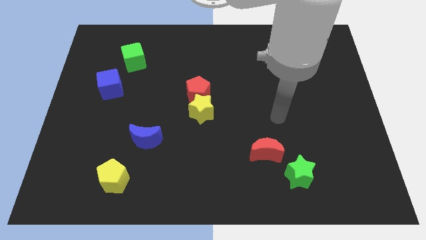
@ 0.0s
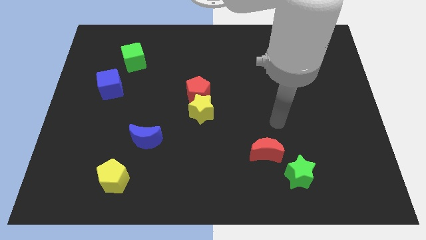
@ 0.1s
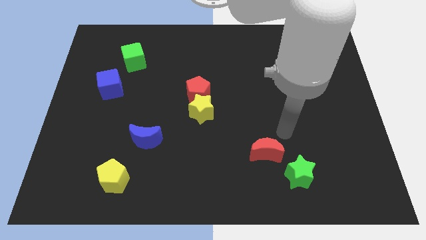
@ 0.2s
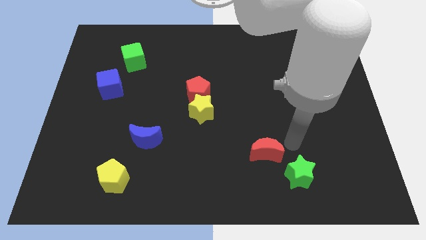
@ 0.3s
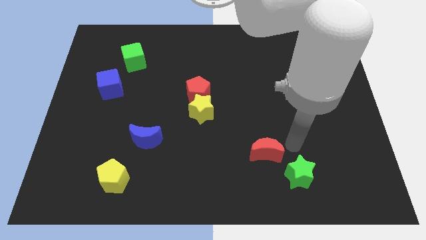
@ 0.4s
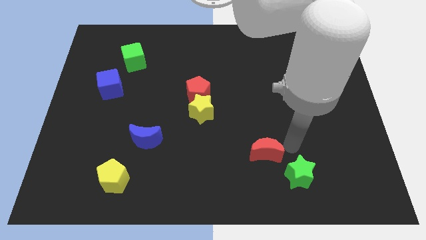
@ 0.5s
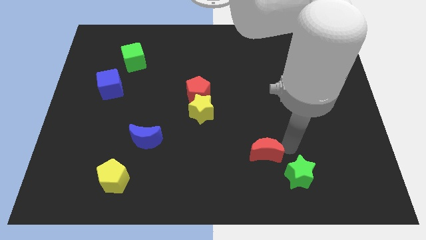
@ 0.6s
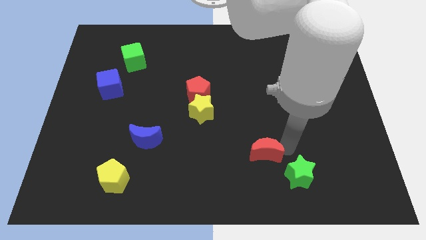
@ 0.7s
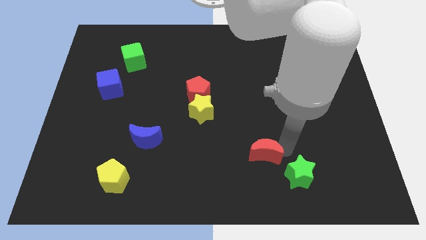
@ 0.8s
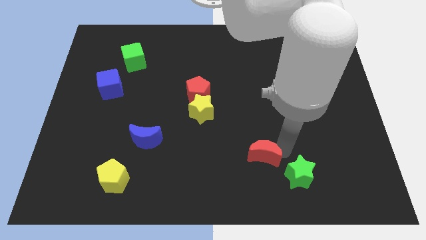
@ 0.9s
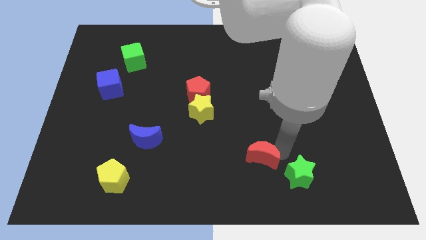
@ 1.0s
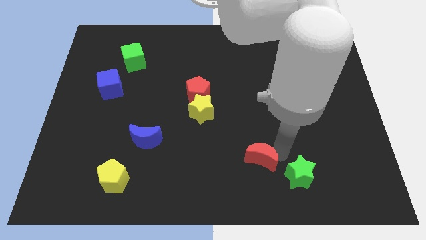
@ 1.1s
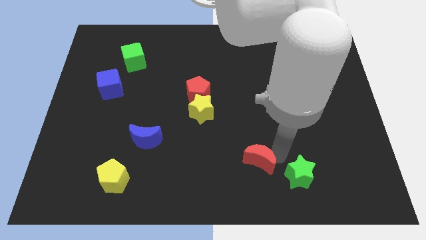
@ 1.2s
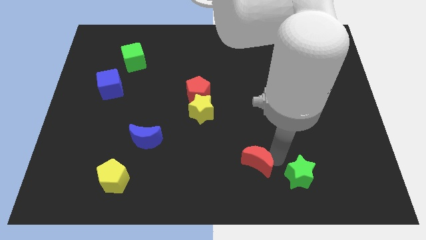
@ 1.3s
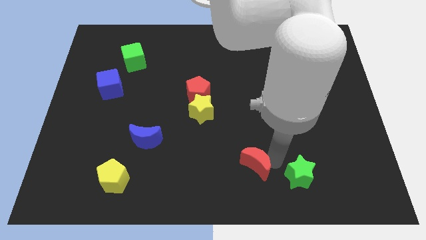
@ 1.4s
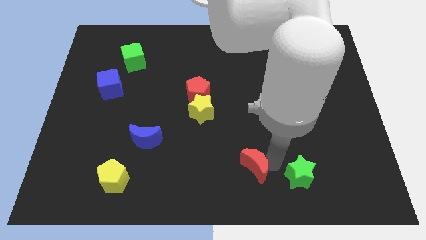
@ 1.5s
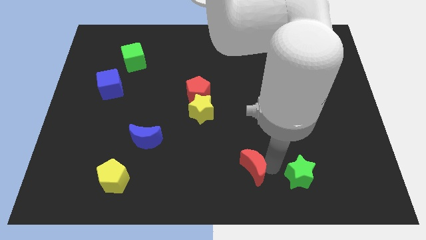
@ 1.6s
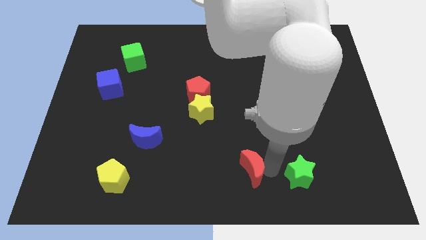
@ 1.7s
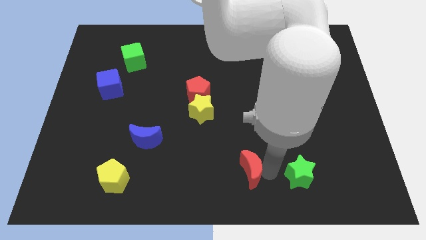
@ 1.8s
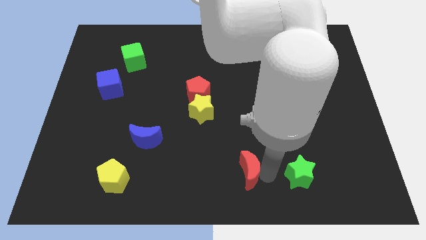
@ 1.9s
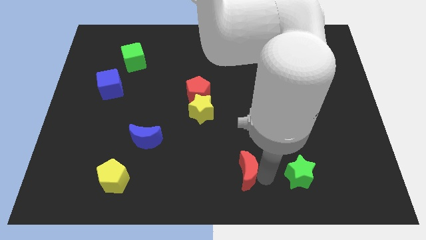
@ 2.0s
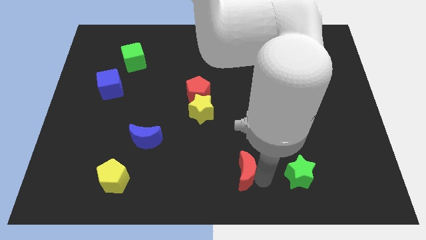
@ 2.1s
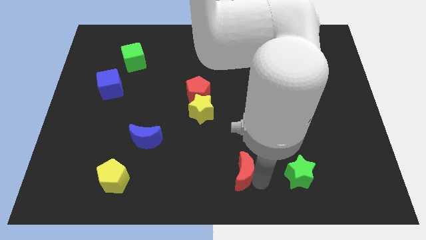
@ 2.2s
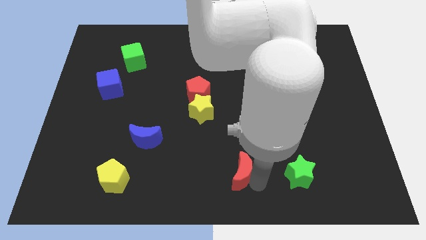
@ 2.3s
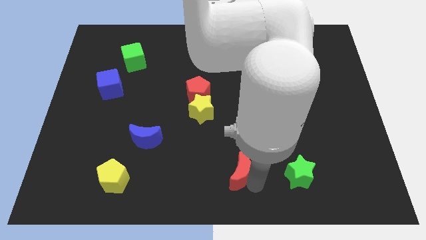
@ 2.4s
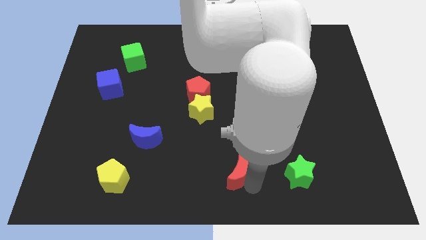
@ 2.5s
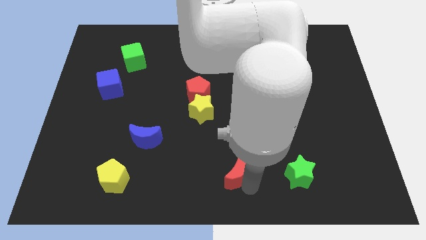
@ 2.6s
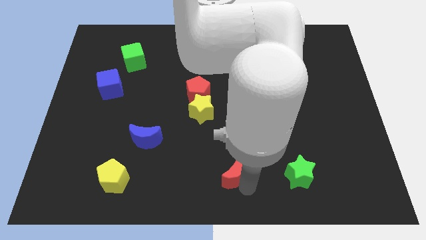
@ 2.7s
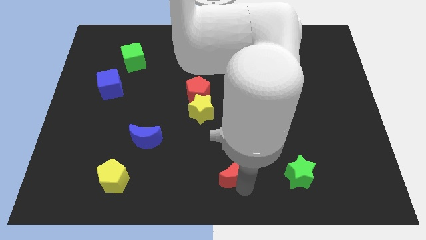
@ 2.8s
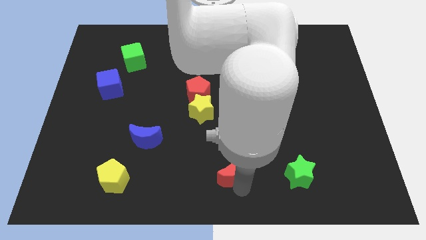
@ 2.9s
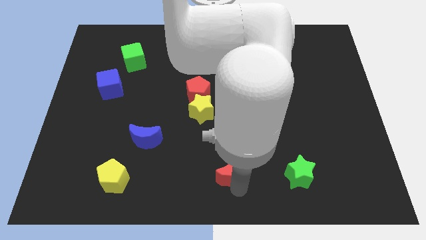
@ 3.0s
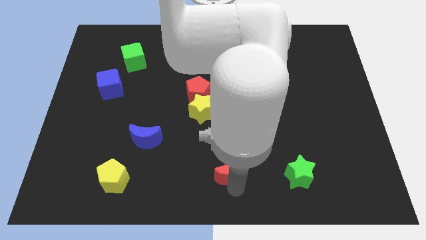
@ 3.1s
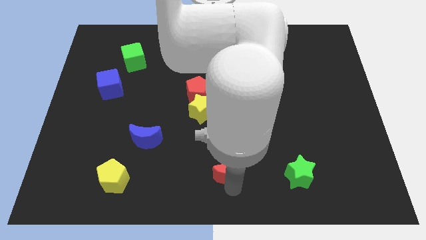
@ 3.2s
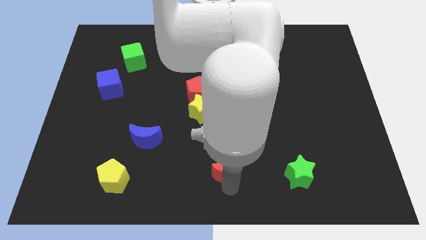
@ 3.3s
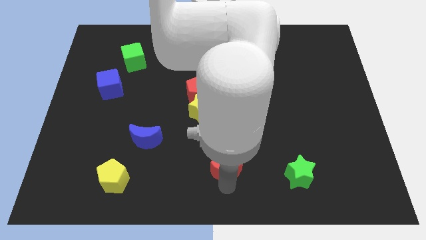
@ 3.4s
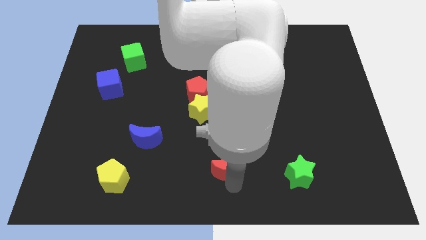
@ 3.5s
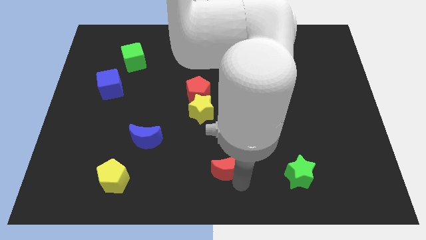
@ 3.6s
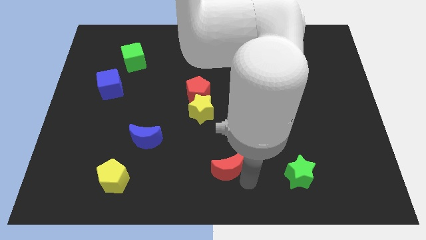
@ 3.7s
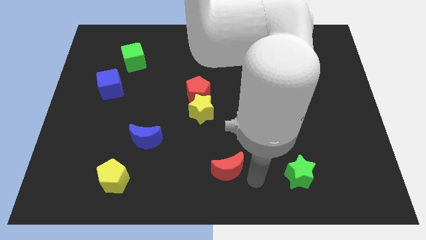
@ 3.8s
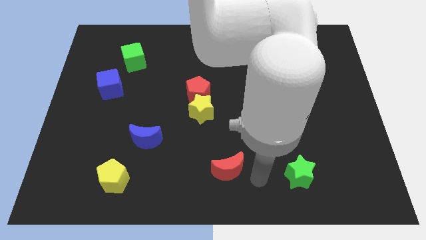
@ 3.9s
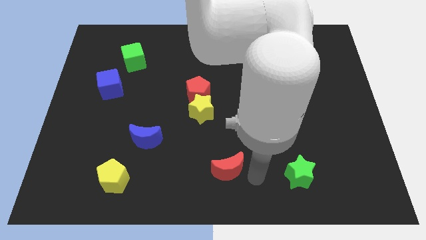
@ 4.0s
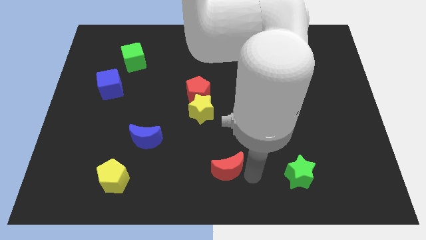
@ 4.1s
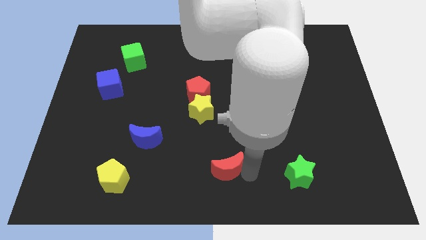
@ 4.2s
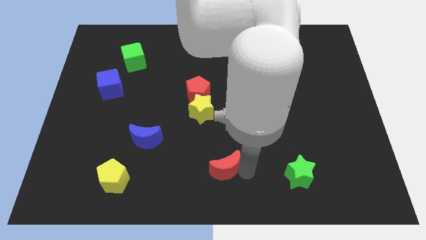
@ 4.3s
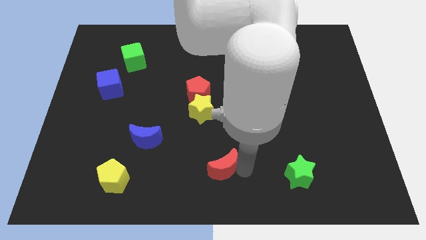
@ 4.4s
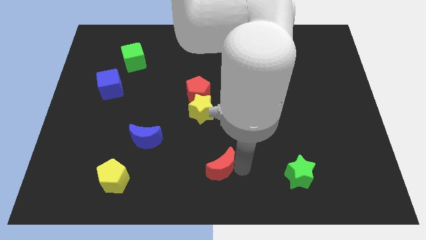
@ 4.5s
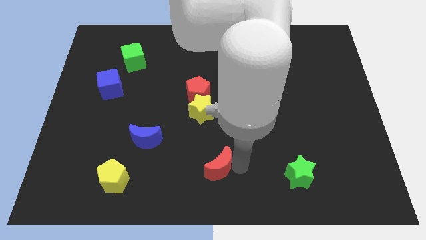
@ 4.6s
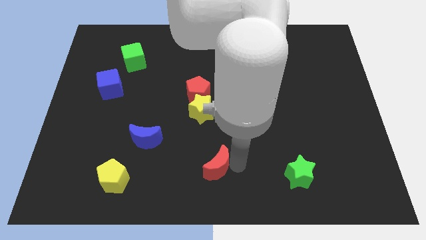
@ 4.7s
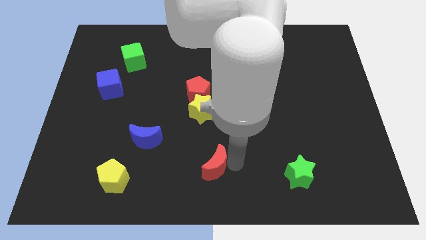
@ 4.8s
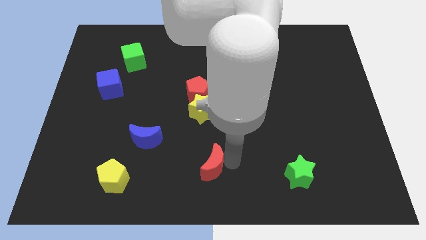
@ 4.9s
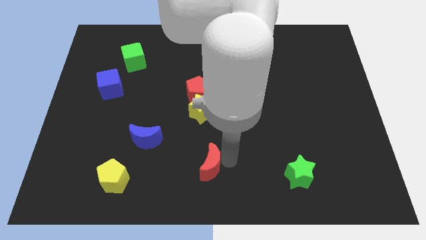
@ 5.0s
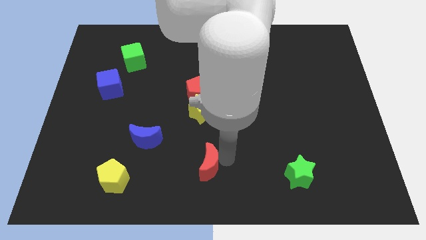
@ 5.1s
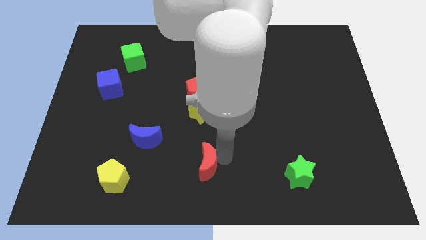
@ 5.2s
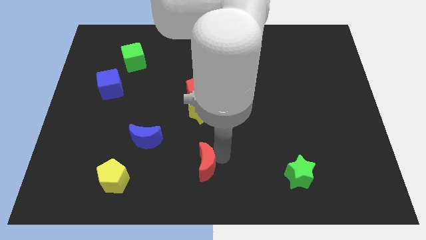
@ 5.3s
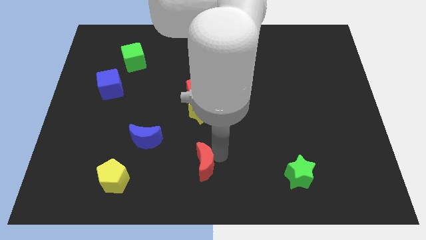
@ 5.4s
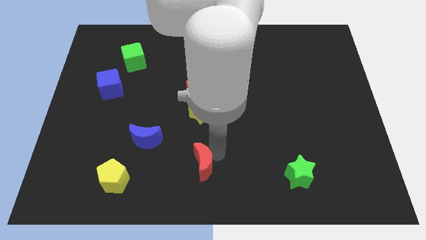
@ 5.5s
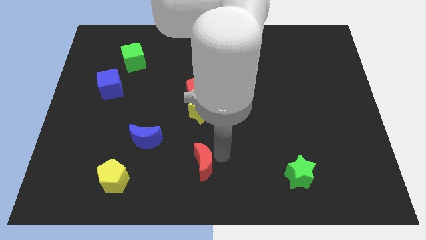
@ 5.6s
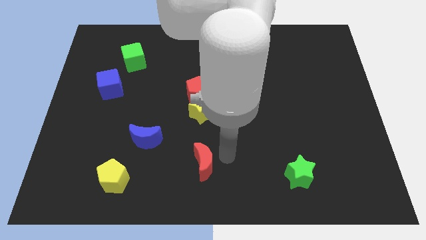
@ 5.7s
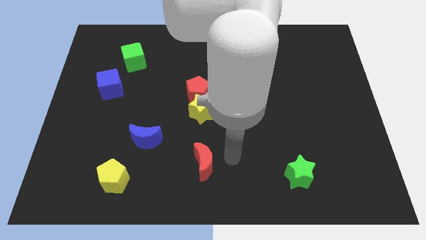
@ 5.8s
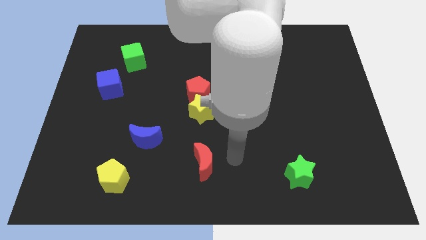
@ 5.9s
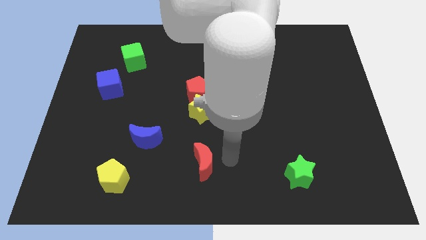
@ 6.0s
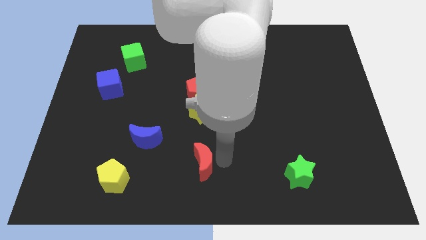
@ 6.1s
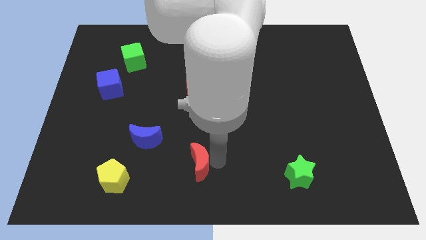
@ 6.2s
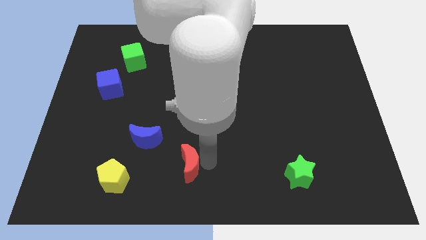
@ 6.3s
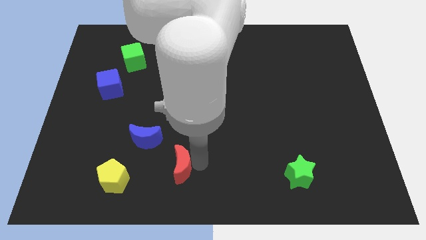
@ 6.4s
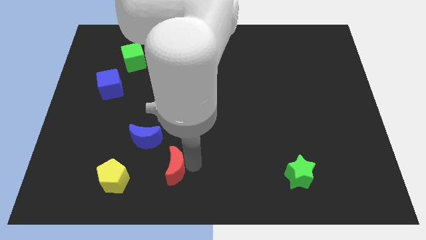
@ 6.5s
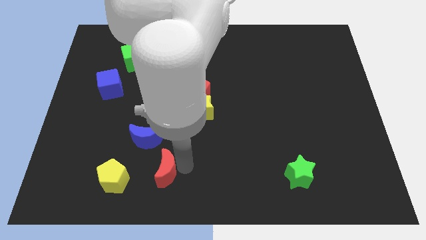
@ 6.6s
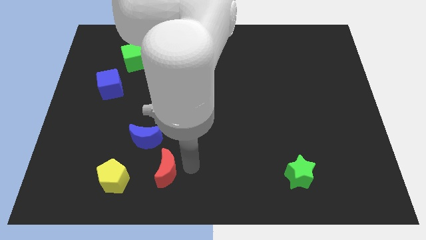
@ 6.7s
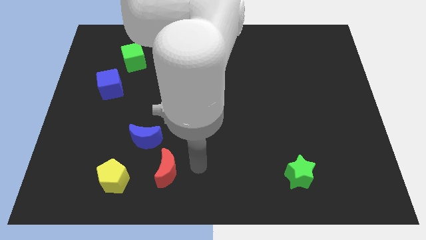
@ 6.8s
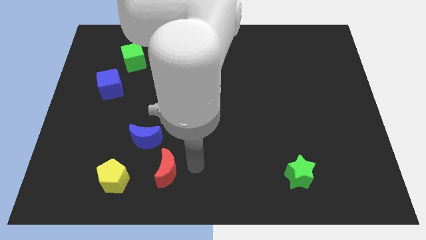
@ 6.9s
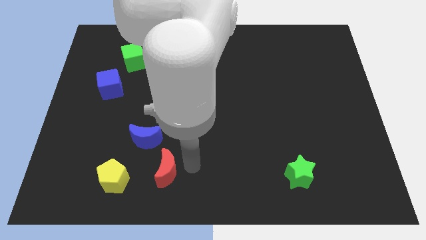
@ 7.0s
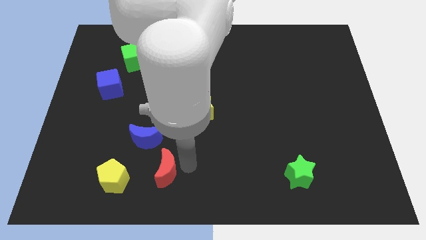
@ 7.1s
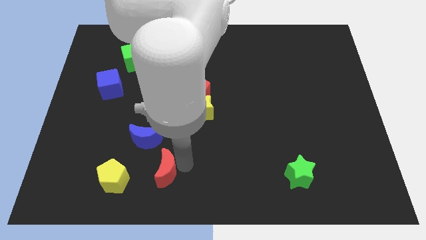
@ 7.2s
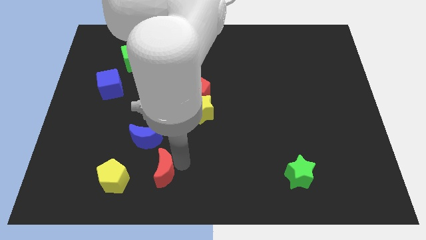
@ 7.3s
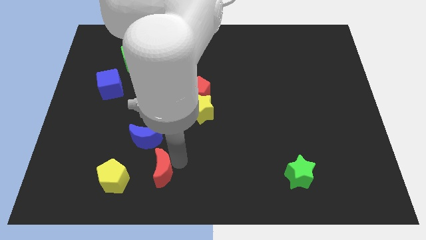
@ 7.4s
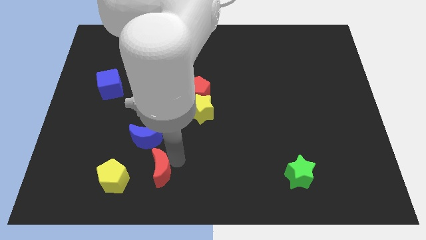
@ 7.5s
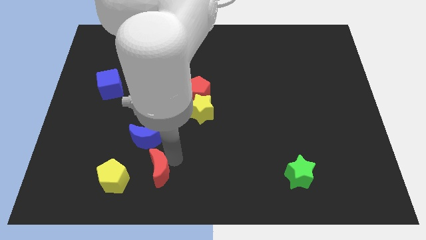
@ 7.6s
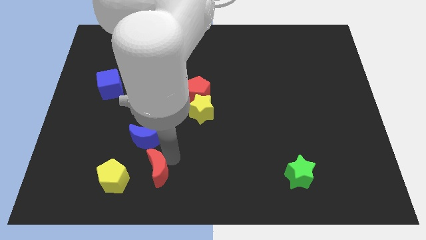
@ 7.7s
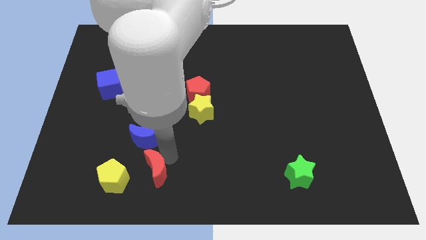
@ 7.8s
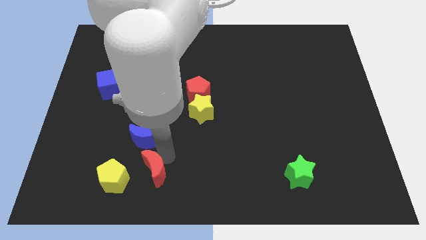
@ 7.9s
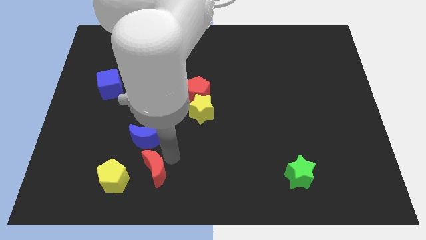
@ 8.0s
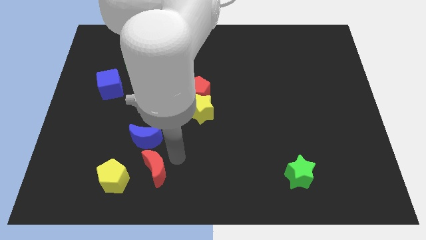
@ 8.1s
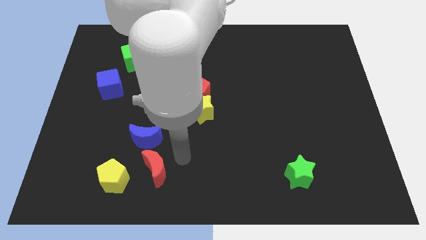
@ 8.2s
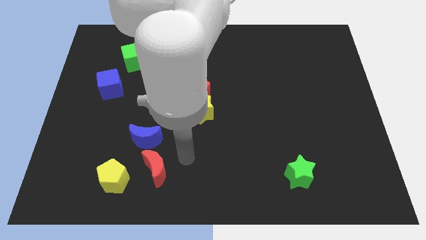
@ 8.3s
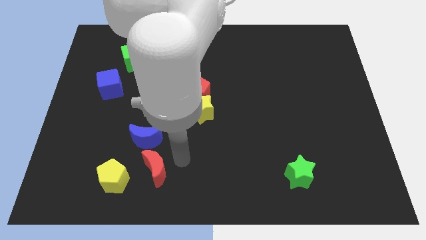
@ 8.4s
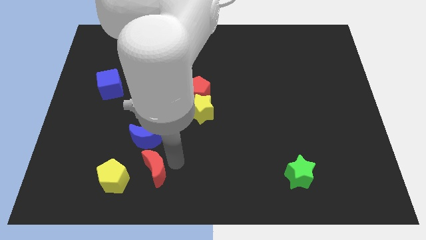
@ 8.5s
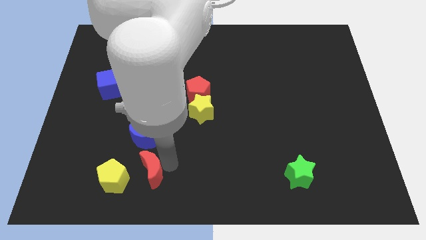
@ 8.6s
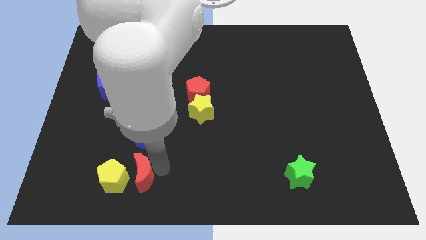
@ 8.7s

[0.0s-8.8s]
push the red moon close to the yellow pentagon
